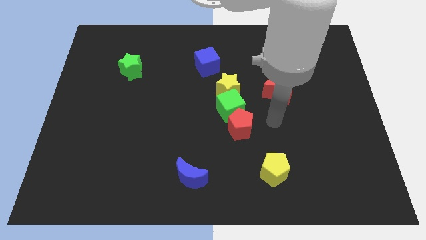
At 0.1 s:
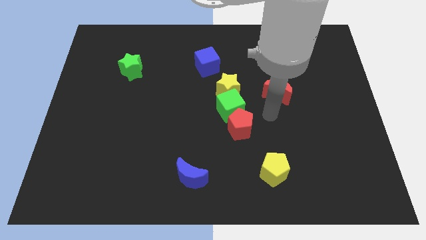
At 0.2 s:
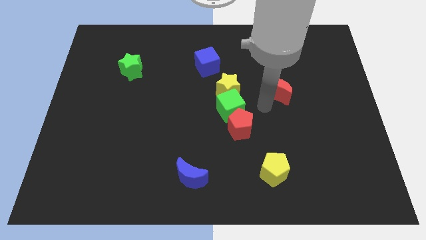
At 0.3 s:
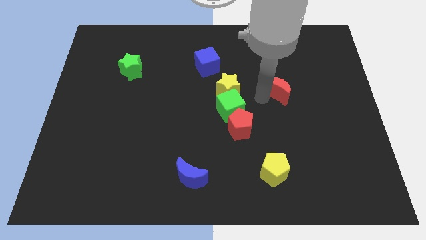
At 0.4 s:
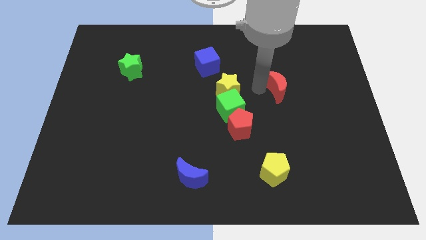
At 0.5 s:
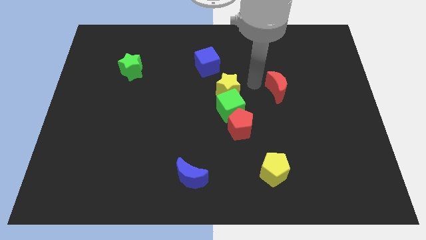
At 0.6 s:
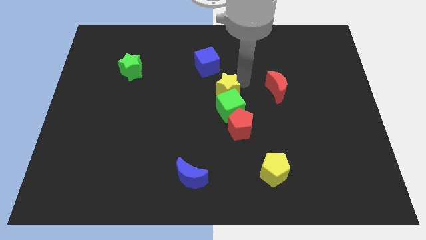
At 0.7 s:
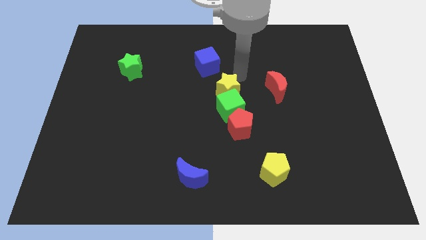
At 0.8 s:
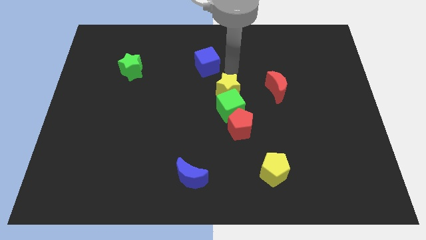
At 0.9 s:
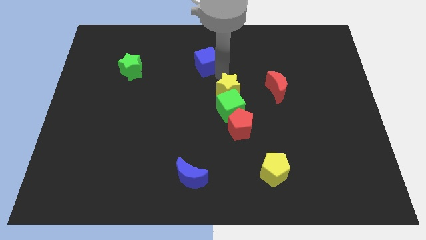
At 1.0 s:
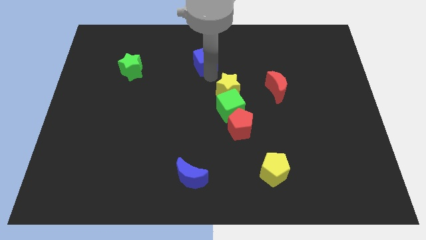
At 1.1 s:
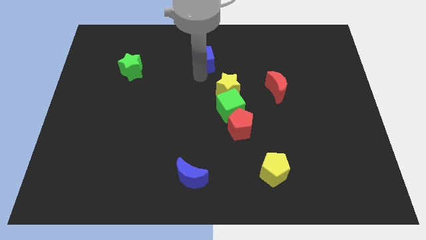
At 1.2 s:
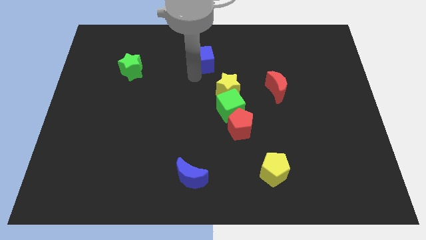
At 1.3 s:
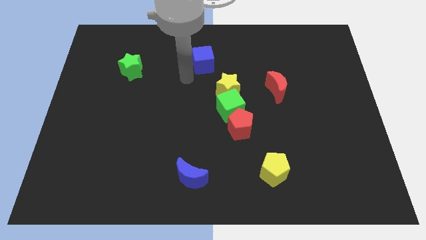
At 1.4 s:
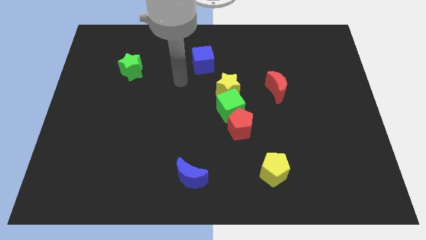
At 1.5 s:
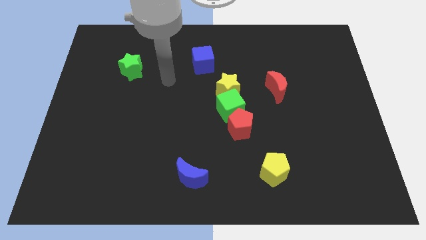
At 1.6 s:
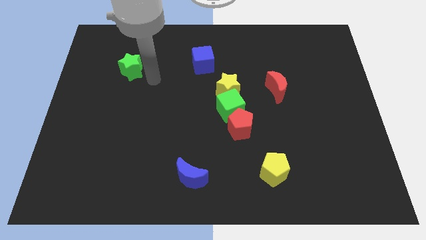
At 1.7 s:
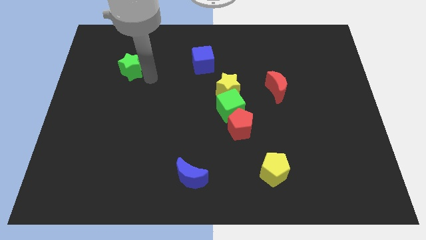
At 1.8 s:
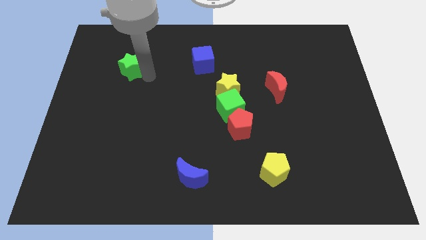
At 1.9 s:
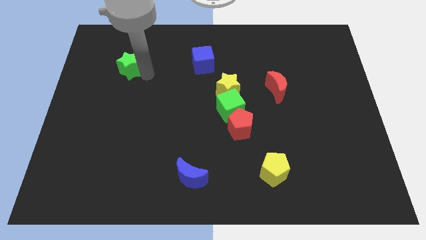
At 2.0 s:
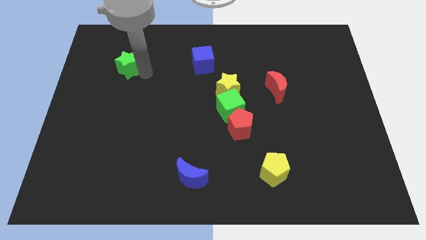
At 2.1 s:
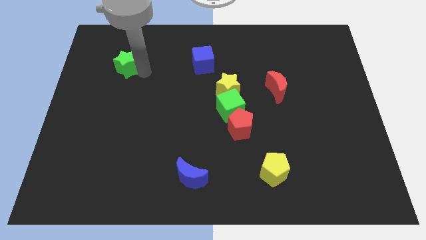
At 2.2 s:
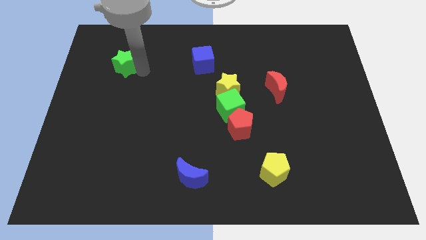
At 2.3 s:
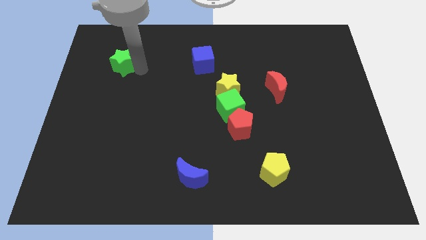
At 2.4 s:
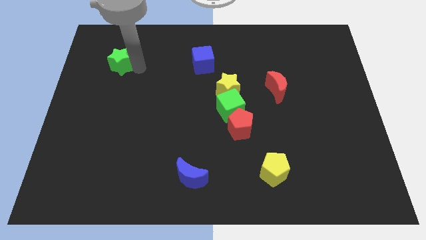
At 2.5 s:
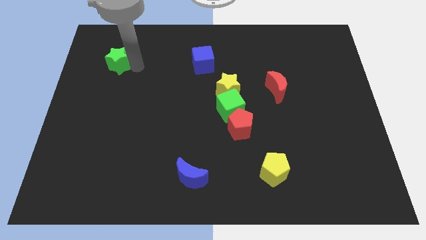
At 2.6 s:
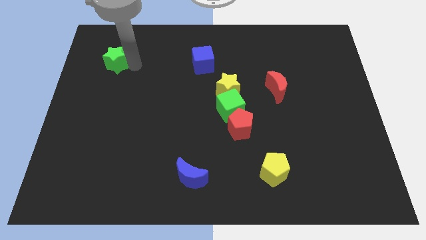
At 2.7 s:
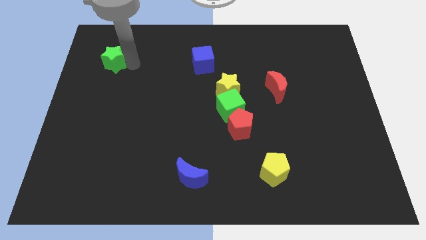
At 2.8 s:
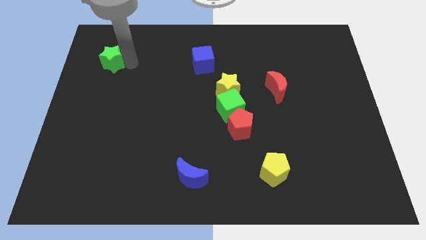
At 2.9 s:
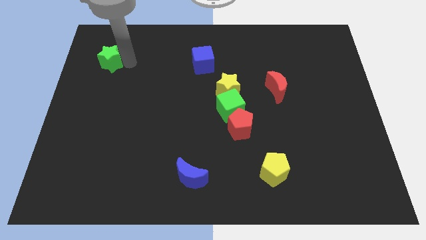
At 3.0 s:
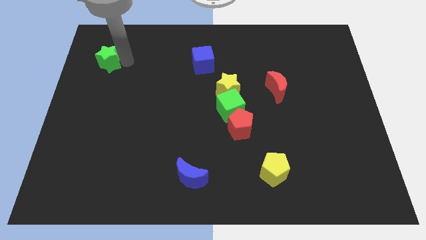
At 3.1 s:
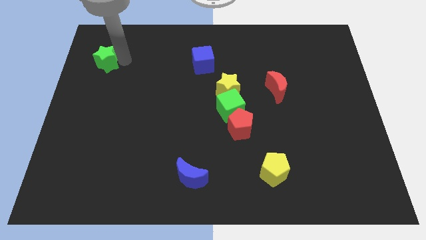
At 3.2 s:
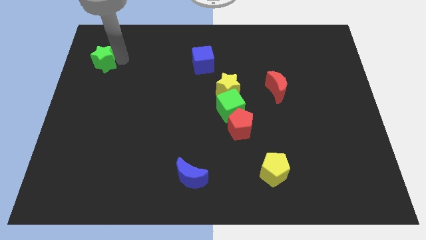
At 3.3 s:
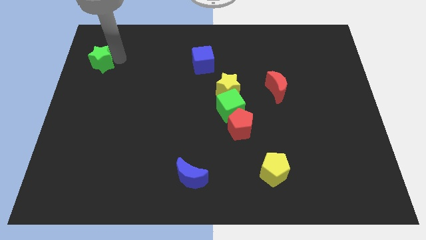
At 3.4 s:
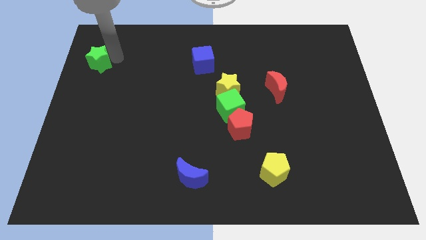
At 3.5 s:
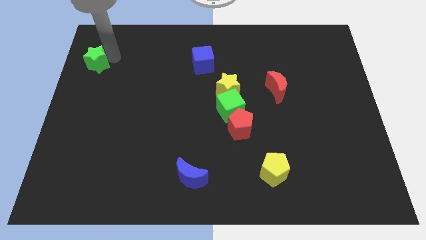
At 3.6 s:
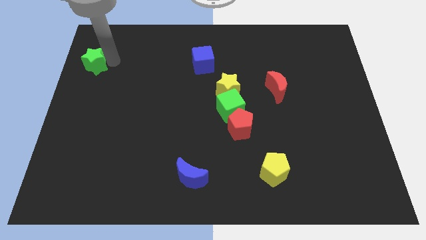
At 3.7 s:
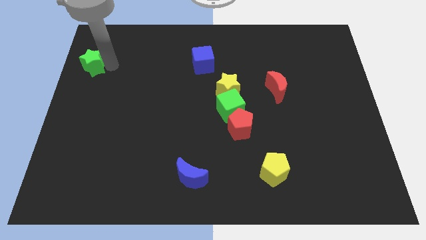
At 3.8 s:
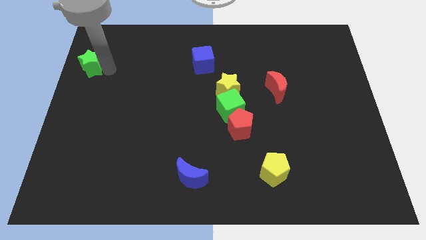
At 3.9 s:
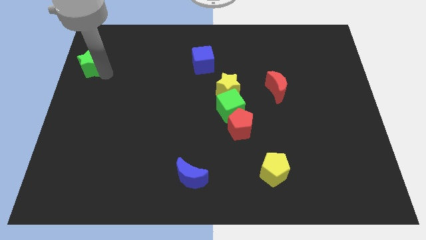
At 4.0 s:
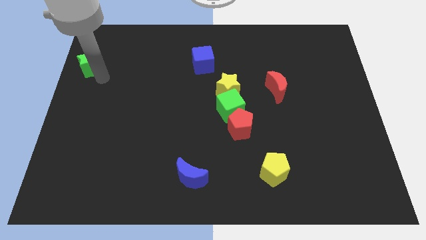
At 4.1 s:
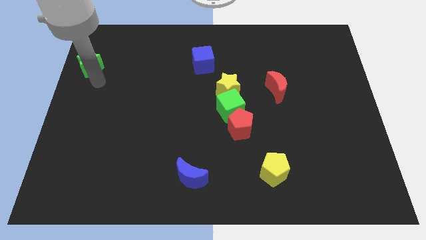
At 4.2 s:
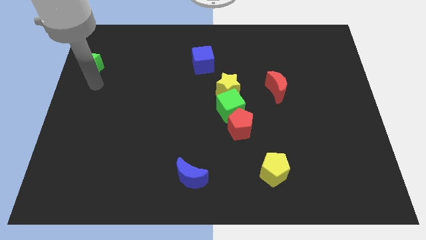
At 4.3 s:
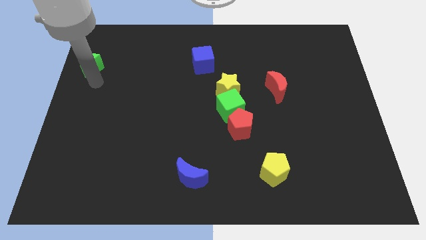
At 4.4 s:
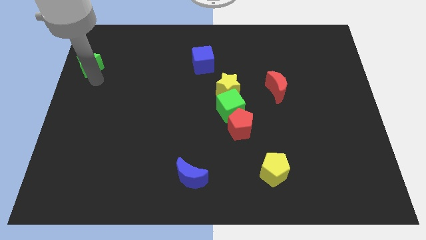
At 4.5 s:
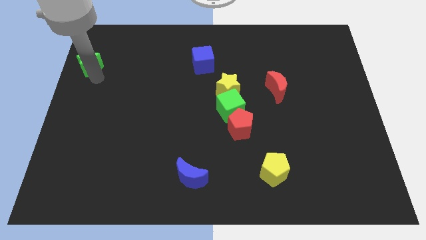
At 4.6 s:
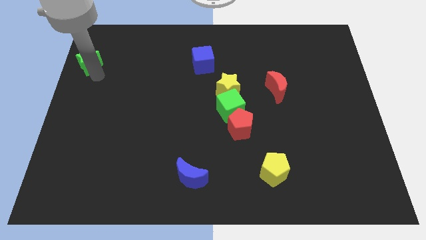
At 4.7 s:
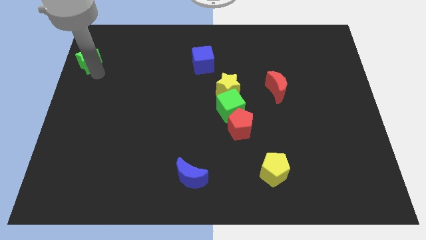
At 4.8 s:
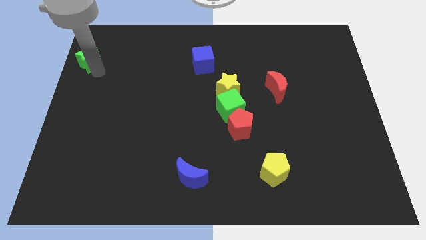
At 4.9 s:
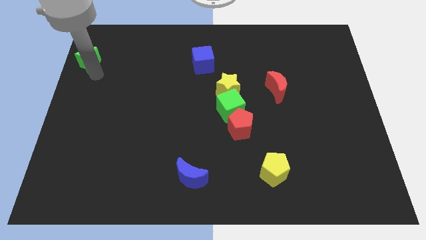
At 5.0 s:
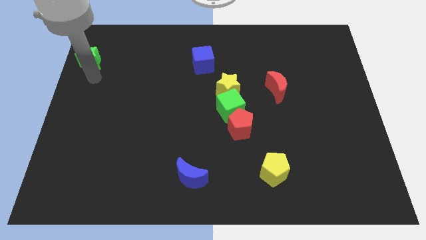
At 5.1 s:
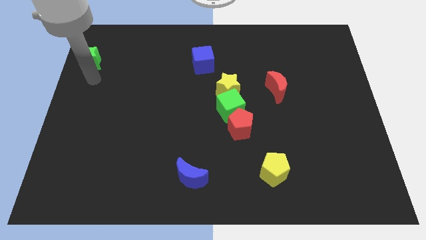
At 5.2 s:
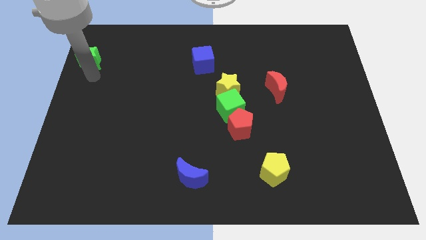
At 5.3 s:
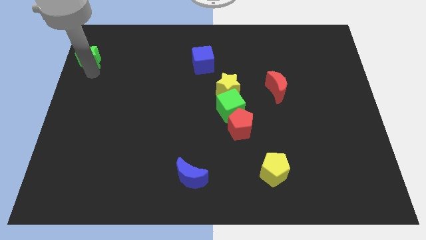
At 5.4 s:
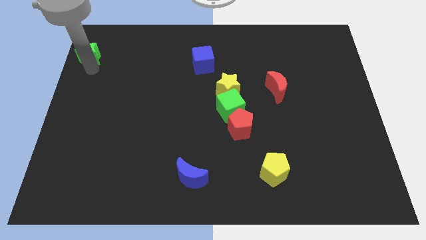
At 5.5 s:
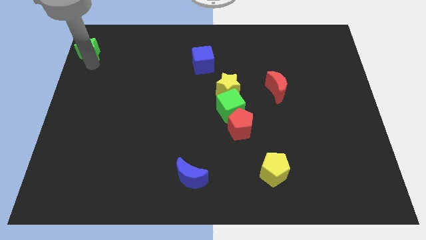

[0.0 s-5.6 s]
push the green star to the top left of the board
